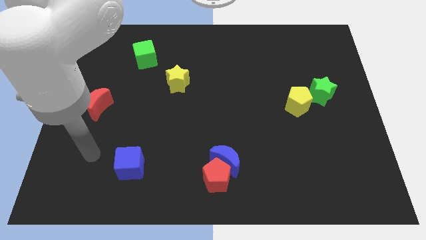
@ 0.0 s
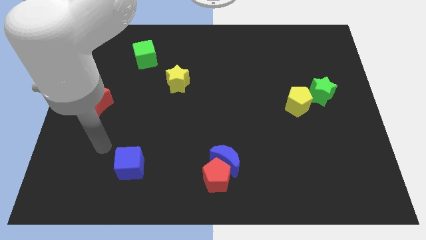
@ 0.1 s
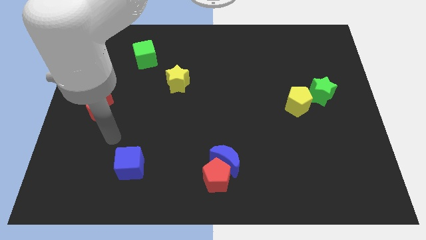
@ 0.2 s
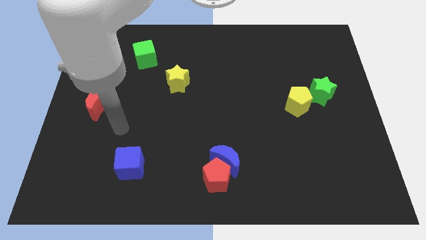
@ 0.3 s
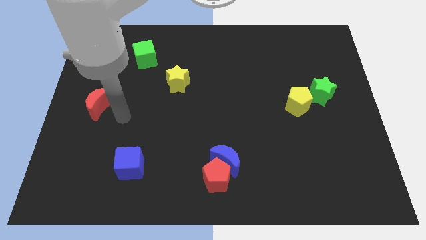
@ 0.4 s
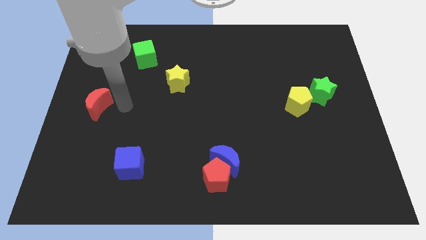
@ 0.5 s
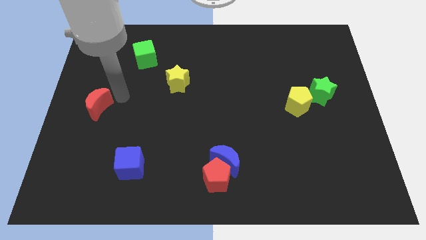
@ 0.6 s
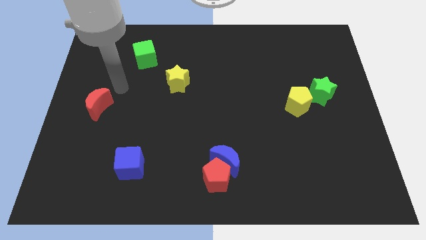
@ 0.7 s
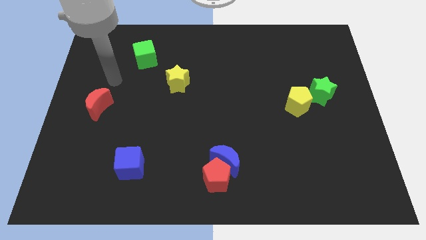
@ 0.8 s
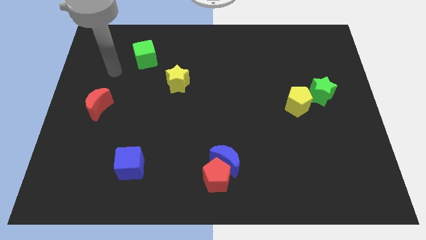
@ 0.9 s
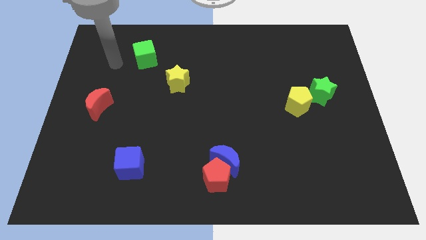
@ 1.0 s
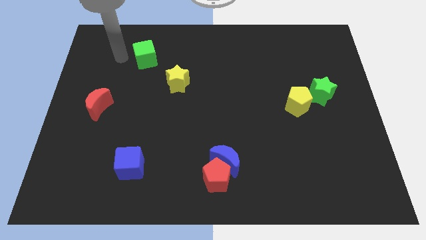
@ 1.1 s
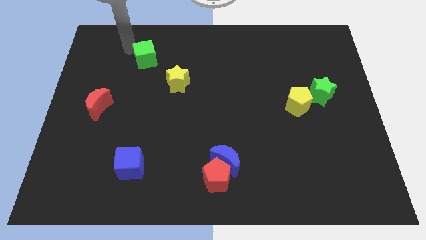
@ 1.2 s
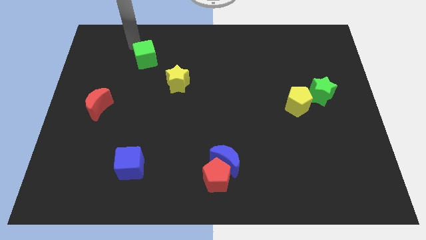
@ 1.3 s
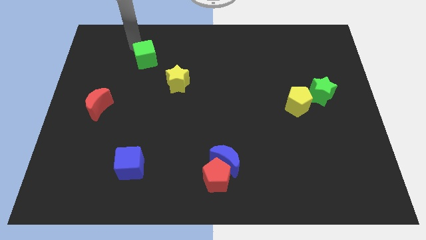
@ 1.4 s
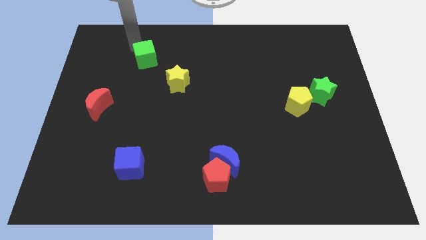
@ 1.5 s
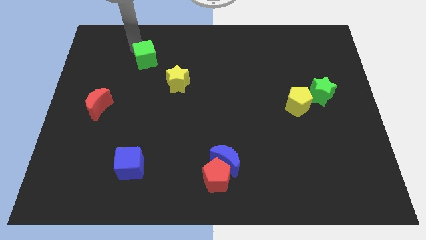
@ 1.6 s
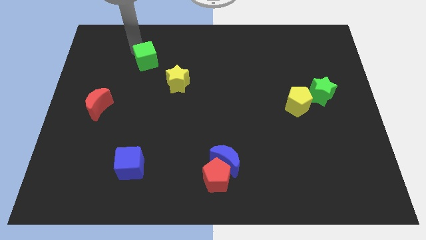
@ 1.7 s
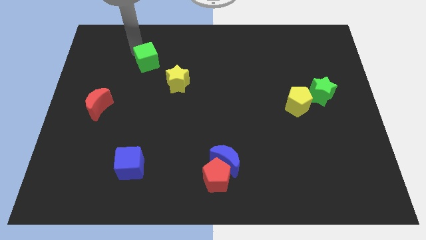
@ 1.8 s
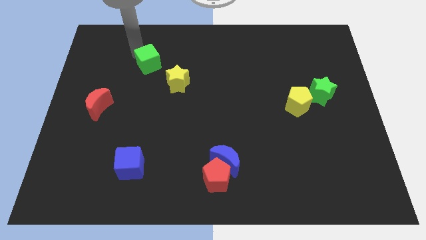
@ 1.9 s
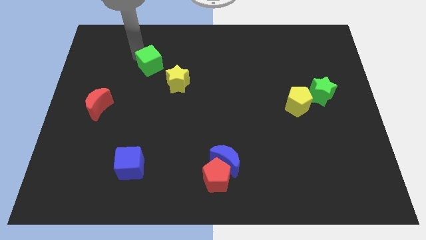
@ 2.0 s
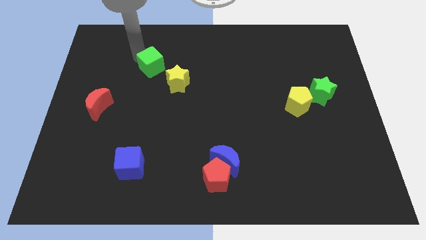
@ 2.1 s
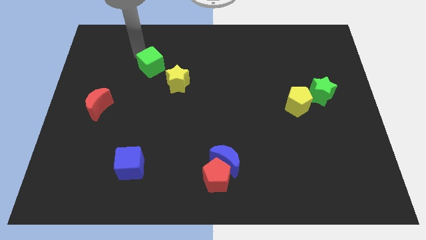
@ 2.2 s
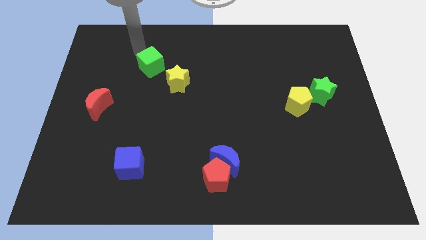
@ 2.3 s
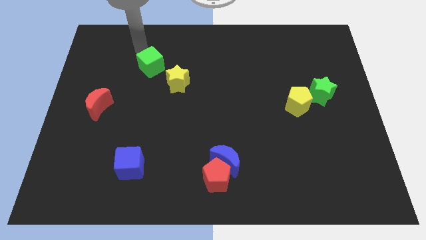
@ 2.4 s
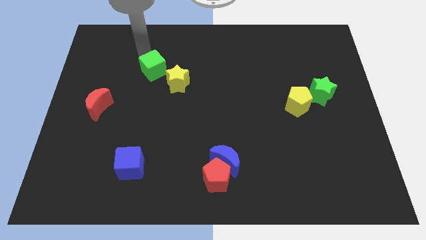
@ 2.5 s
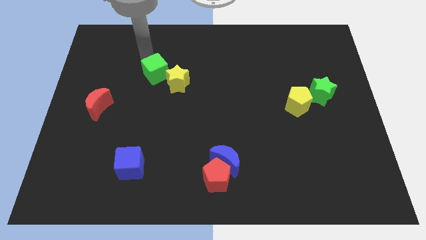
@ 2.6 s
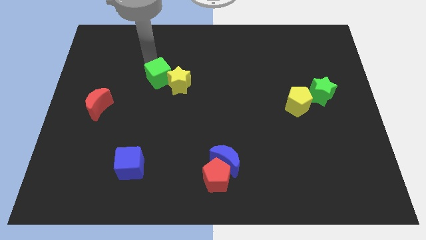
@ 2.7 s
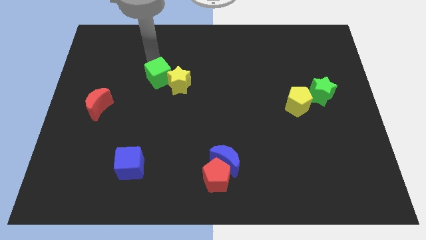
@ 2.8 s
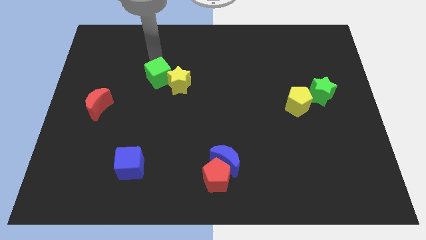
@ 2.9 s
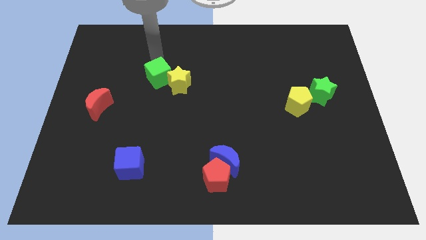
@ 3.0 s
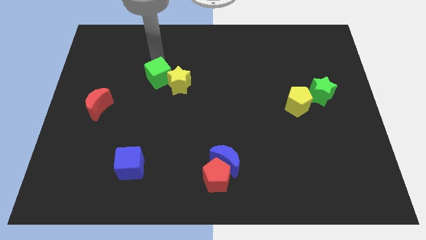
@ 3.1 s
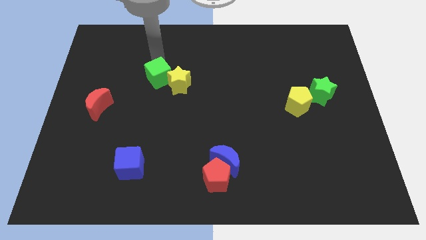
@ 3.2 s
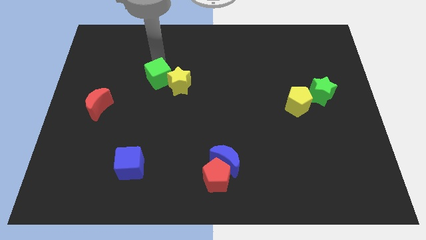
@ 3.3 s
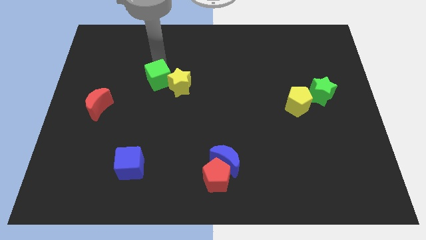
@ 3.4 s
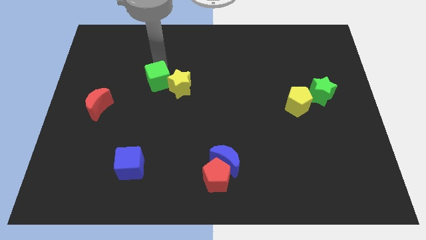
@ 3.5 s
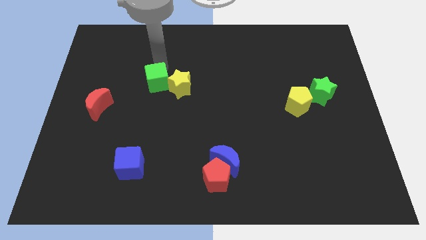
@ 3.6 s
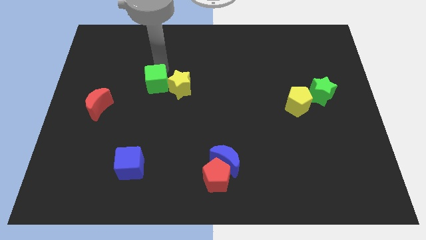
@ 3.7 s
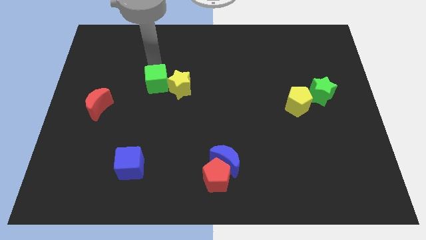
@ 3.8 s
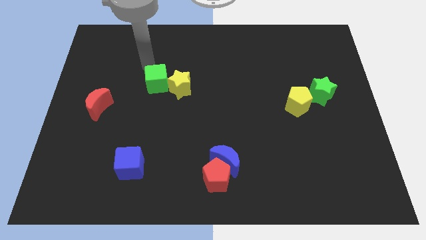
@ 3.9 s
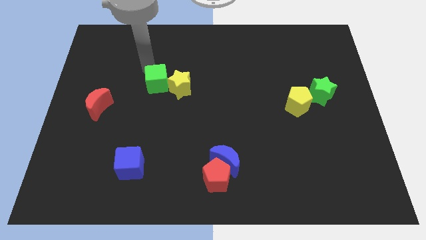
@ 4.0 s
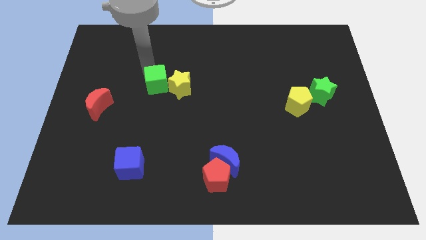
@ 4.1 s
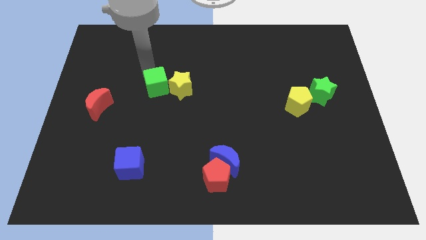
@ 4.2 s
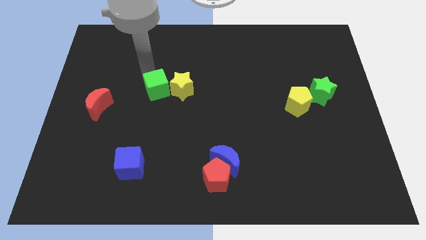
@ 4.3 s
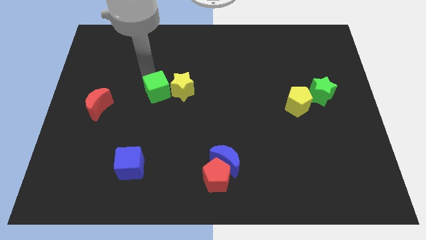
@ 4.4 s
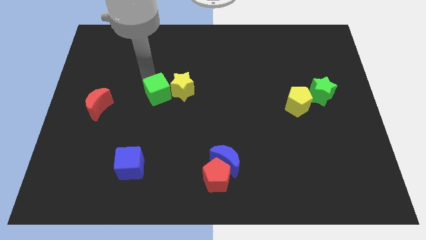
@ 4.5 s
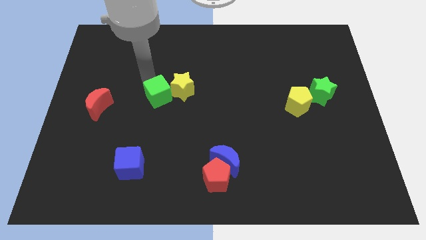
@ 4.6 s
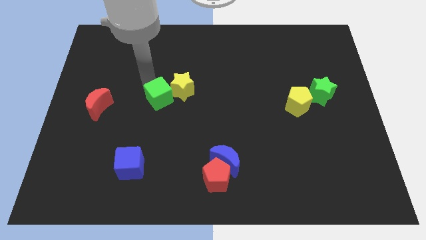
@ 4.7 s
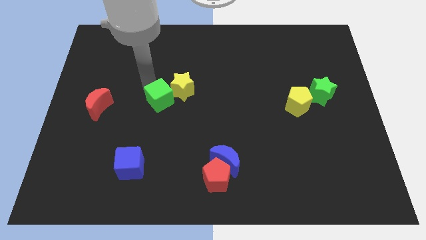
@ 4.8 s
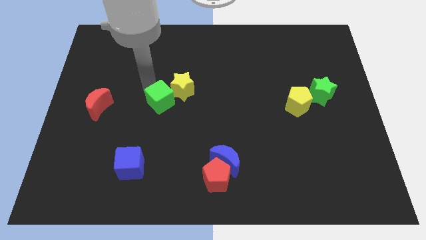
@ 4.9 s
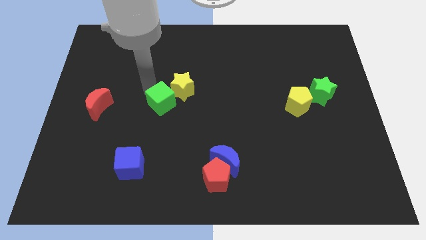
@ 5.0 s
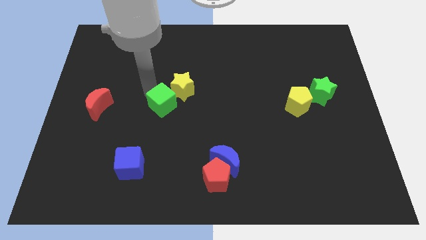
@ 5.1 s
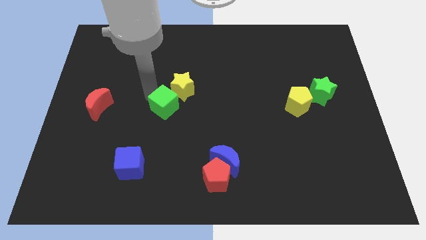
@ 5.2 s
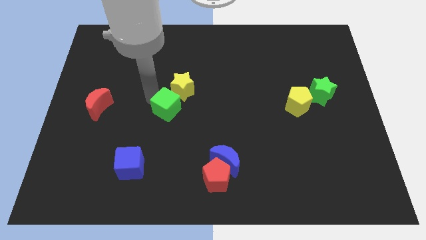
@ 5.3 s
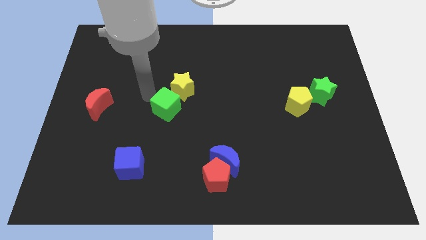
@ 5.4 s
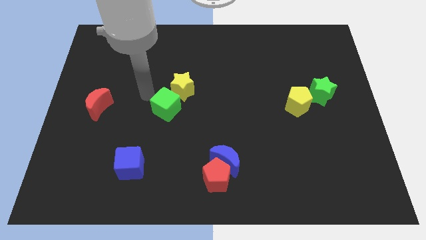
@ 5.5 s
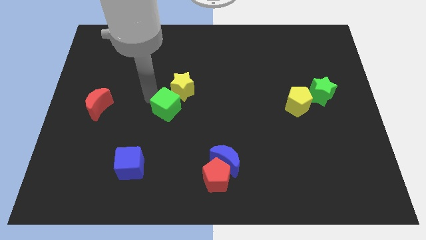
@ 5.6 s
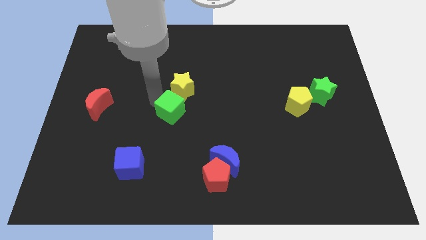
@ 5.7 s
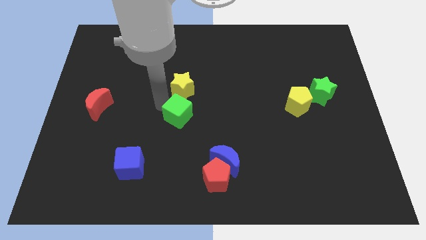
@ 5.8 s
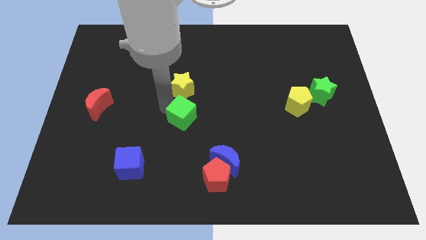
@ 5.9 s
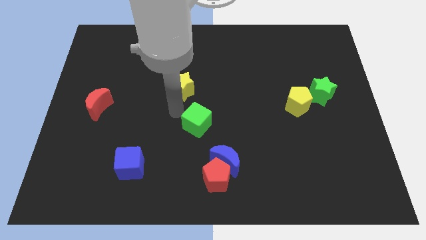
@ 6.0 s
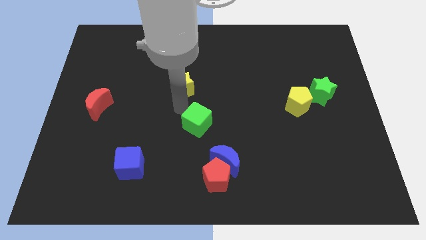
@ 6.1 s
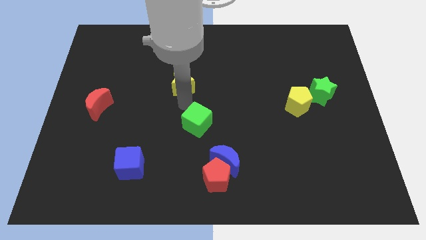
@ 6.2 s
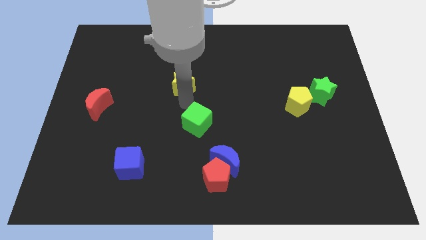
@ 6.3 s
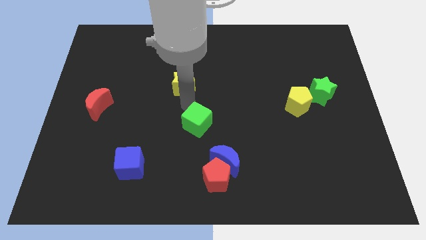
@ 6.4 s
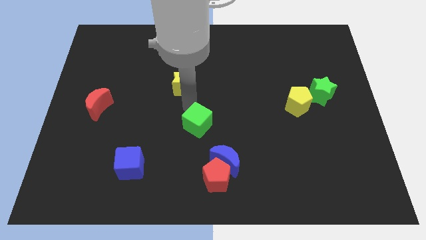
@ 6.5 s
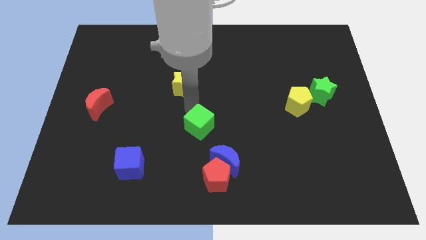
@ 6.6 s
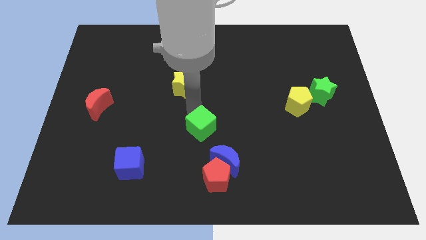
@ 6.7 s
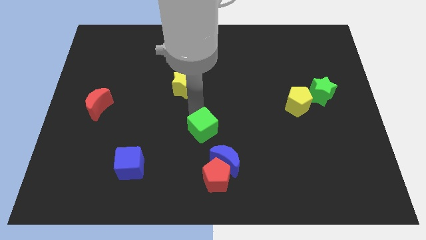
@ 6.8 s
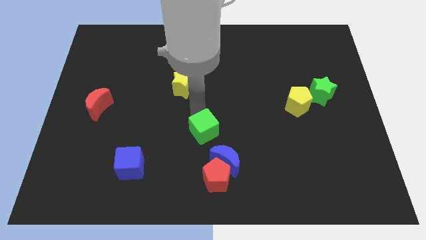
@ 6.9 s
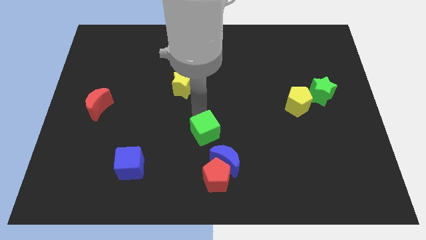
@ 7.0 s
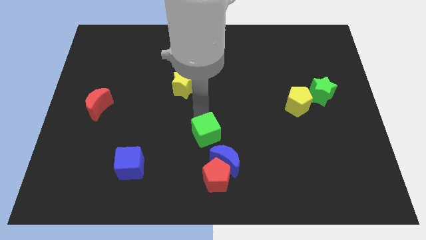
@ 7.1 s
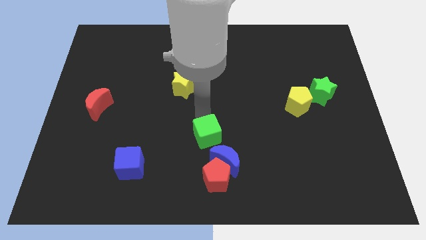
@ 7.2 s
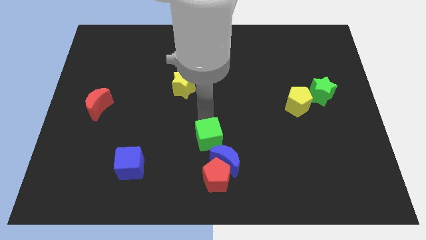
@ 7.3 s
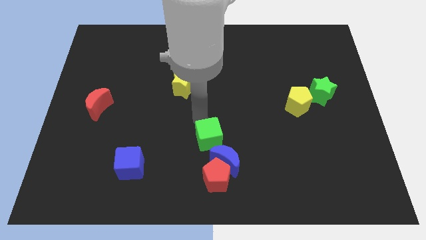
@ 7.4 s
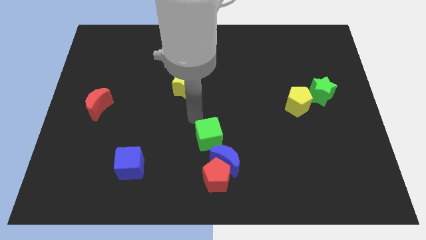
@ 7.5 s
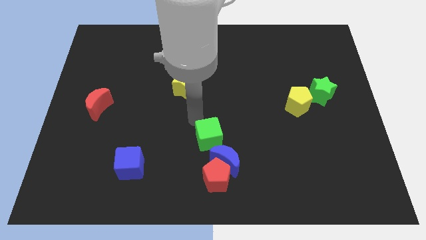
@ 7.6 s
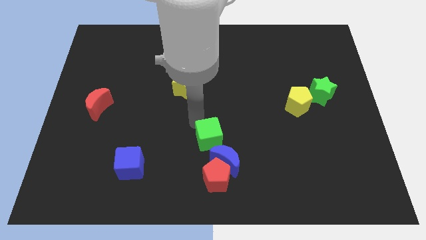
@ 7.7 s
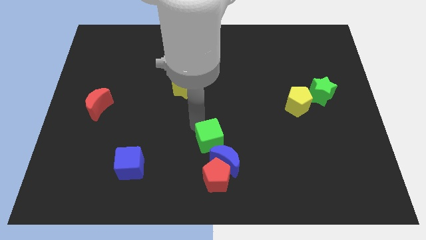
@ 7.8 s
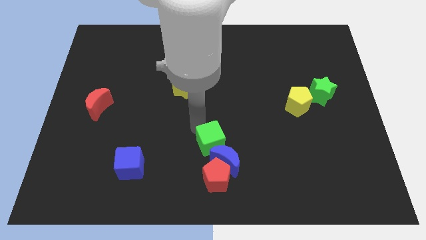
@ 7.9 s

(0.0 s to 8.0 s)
move the green cube close to the blue moon
